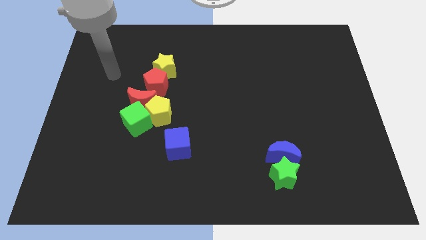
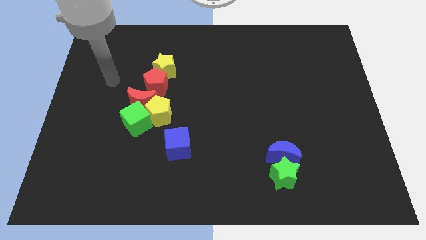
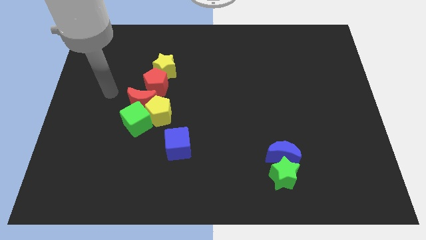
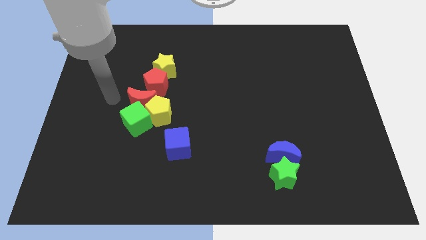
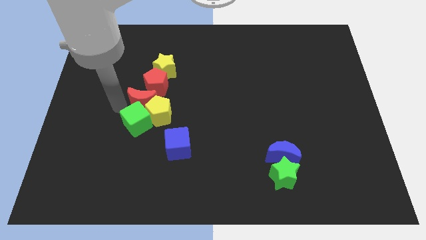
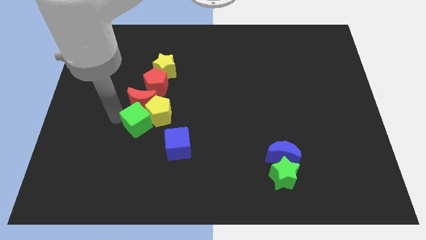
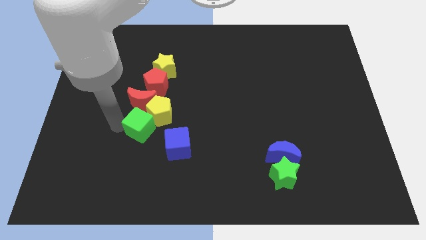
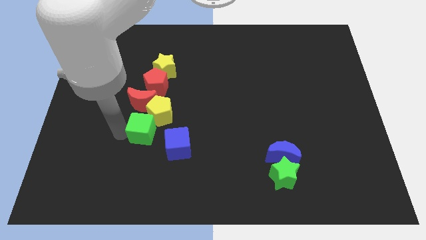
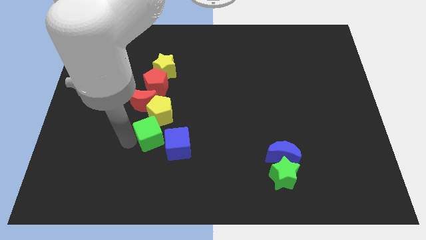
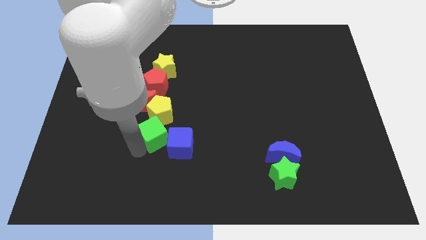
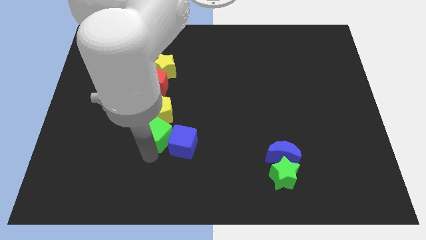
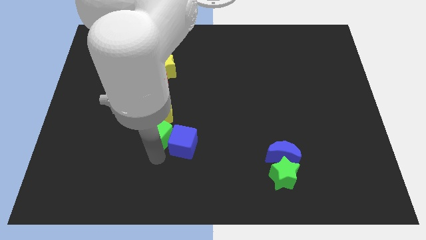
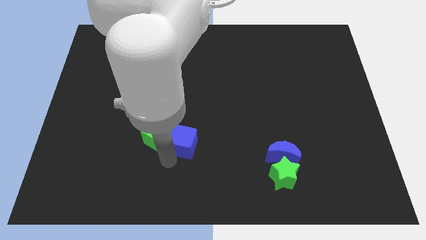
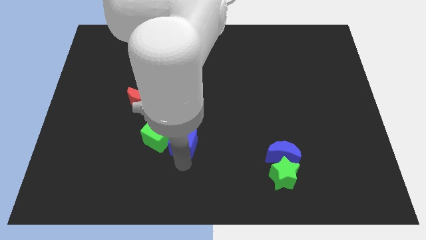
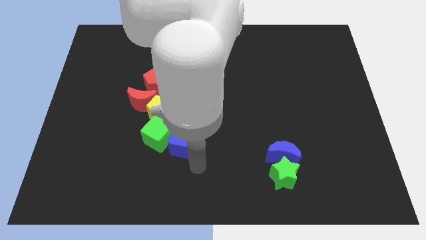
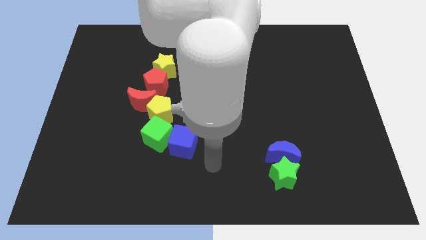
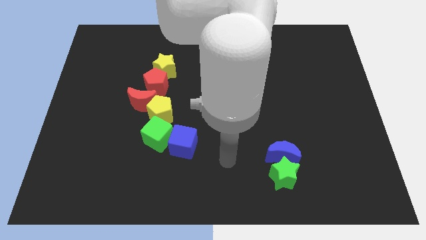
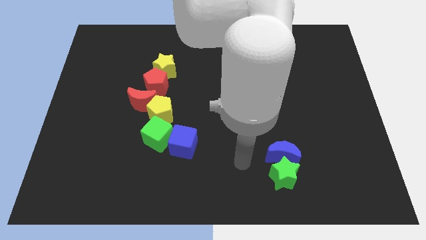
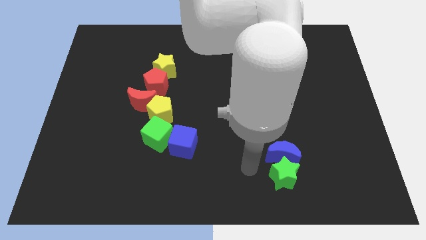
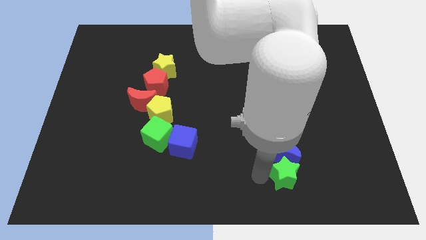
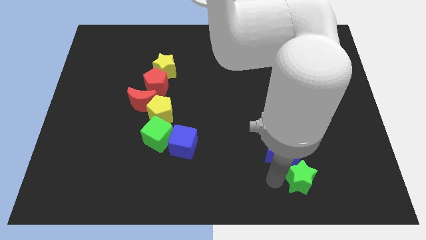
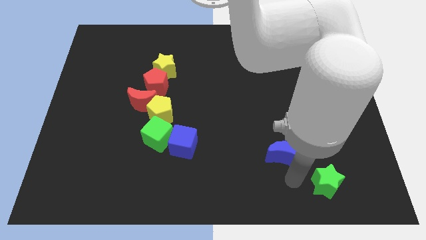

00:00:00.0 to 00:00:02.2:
separate the blue moon from the green star

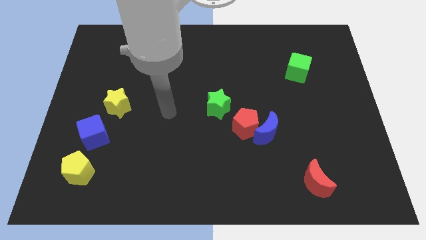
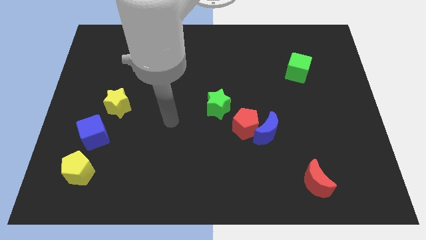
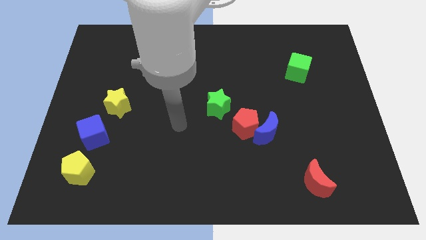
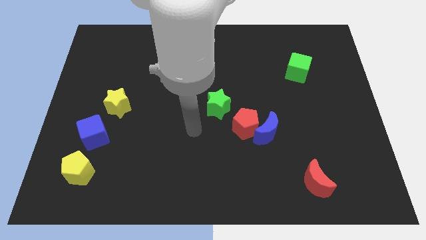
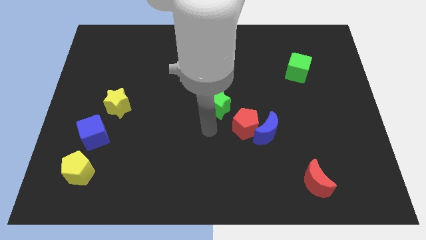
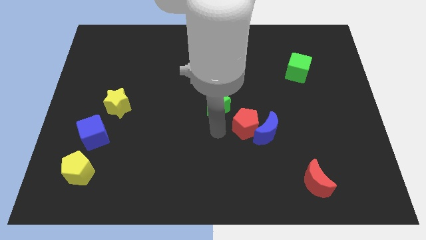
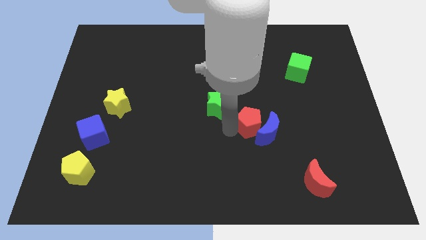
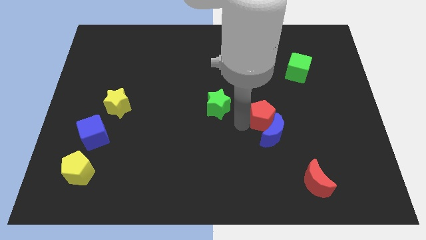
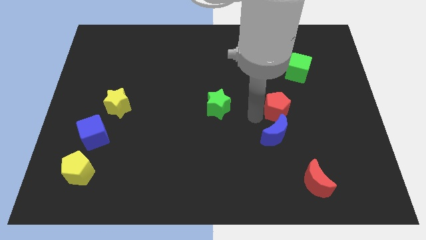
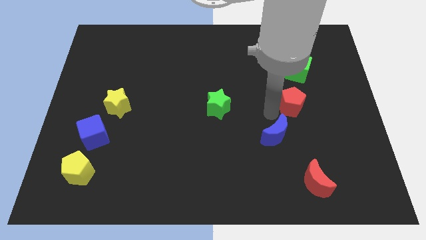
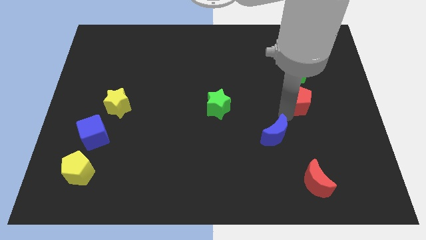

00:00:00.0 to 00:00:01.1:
pull the blue moon apart from the red pentagon

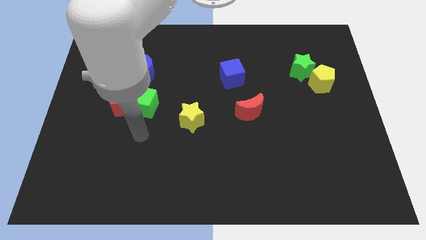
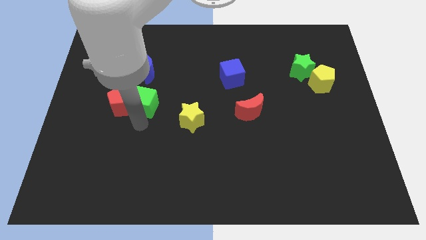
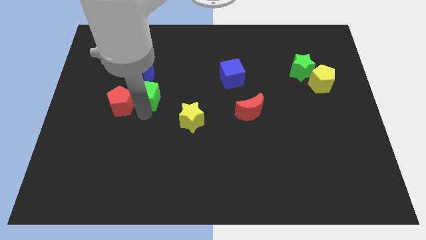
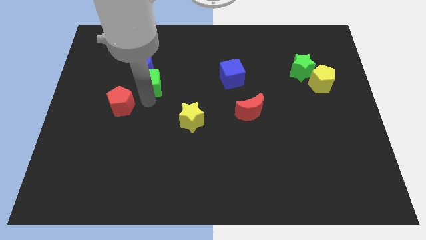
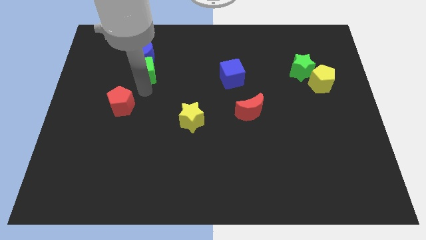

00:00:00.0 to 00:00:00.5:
move the red pentagon away from the green cube

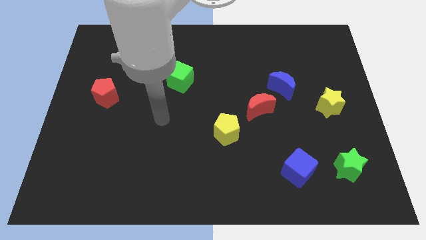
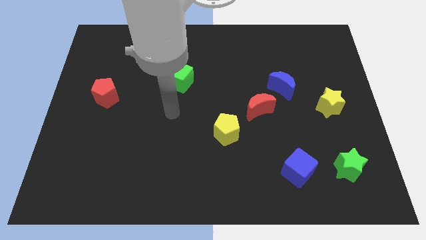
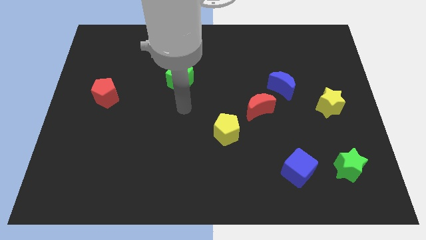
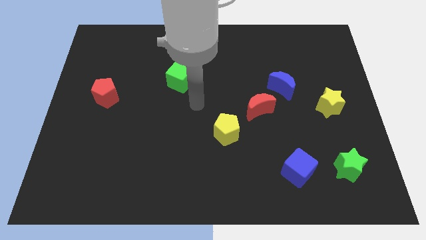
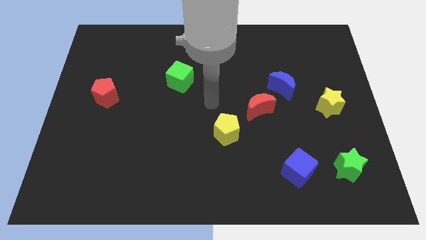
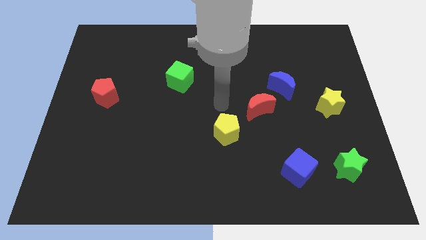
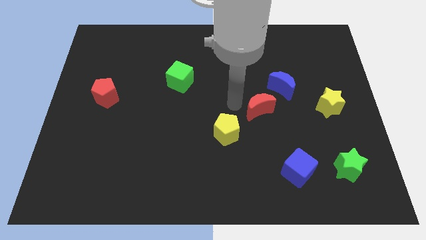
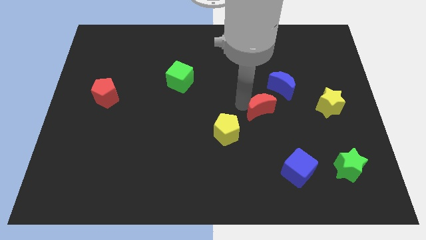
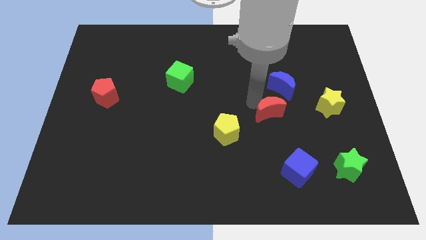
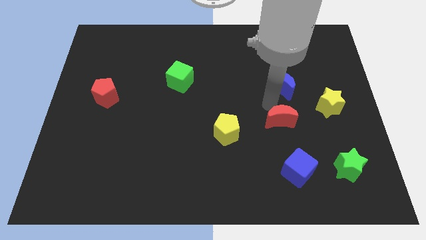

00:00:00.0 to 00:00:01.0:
pull the blue moon apart from the red moon

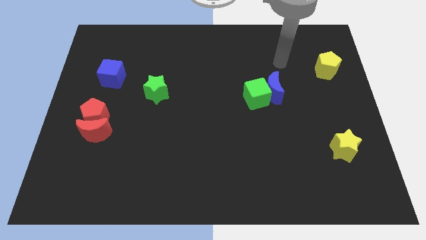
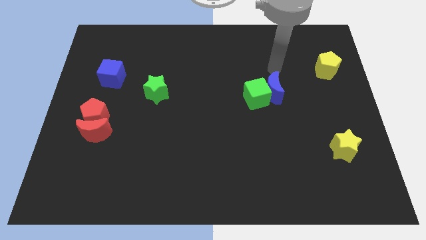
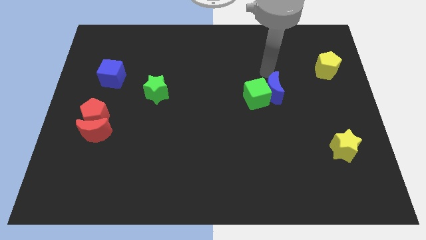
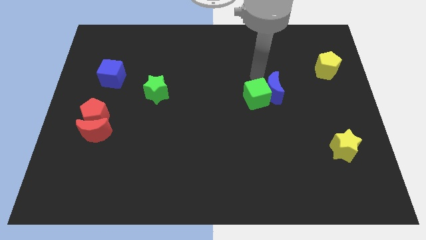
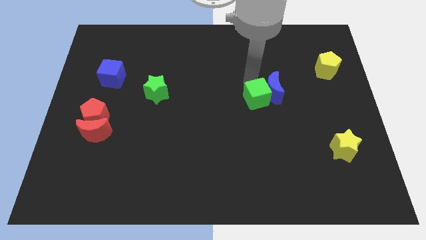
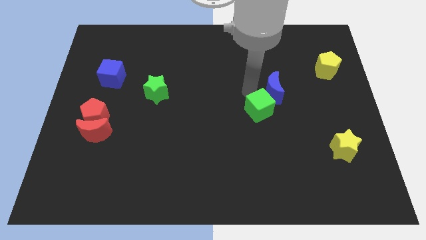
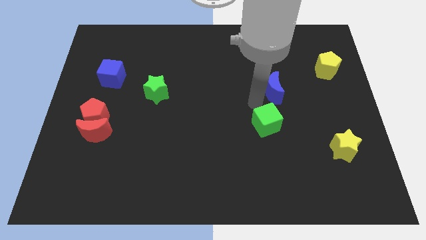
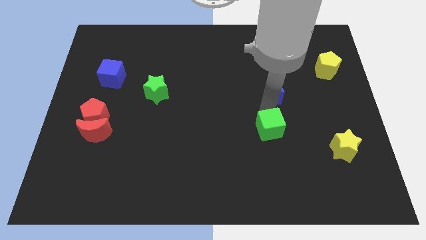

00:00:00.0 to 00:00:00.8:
separate the blue moon from the green cube

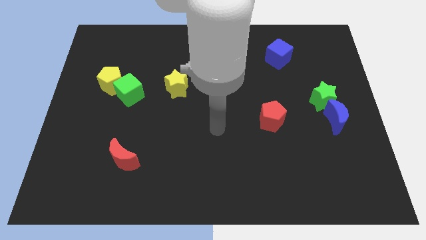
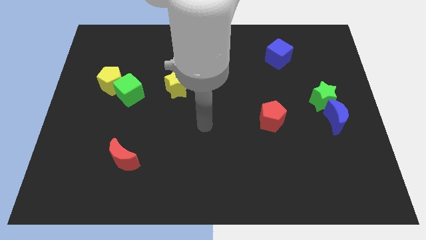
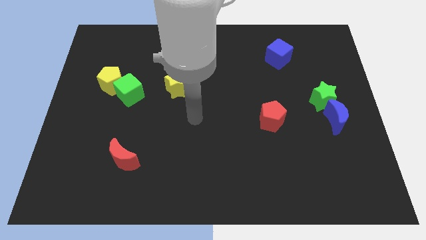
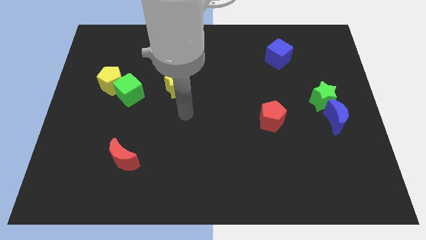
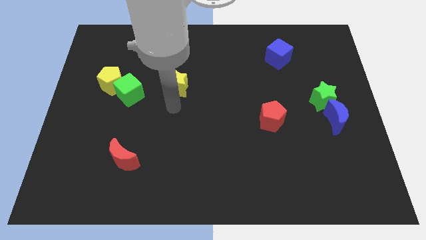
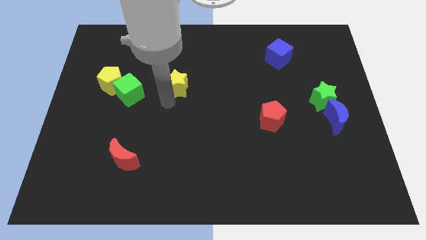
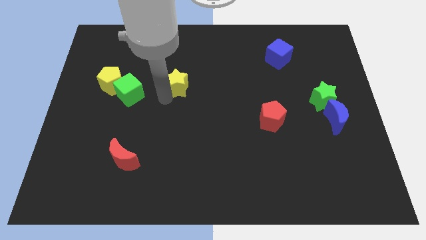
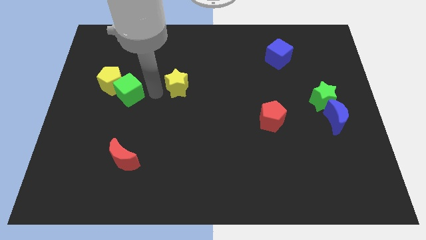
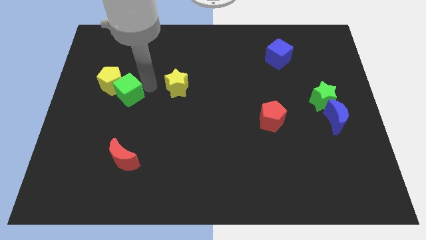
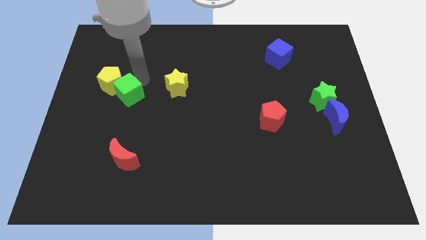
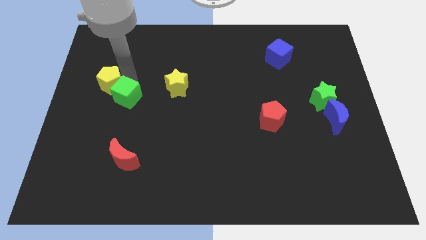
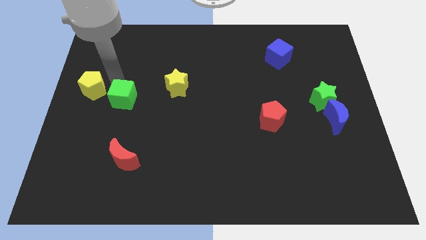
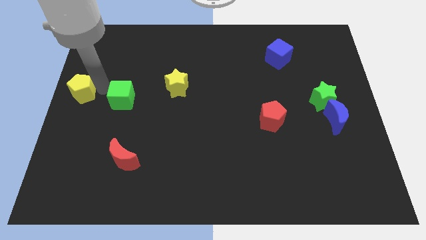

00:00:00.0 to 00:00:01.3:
move the green cube away from the yellow pentagon

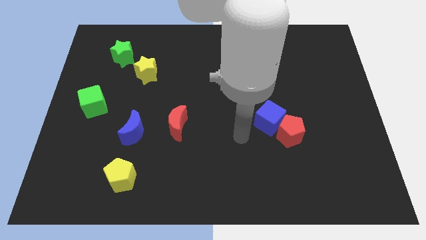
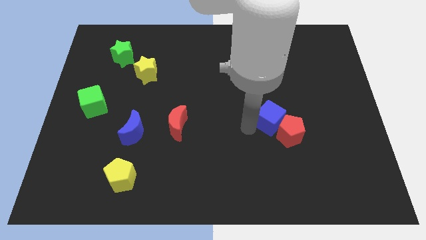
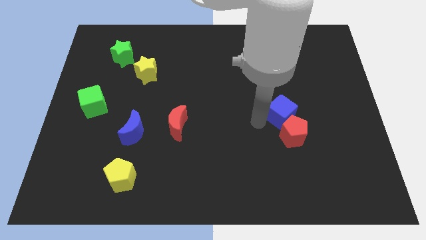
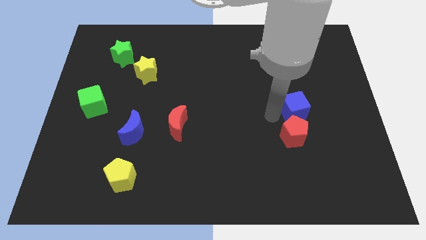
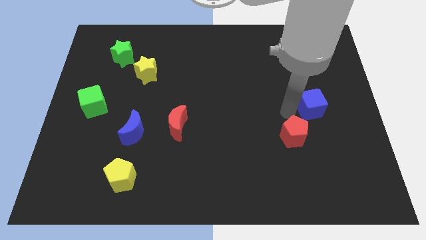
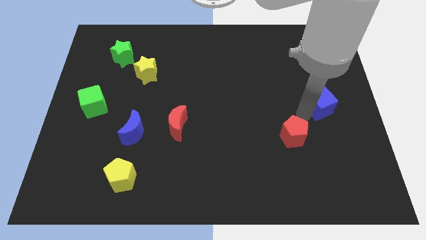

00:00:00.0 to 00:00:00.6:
pull the red pentagon apart from the blue cube

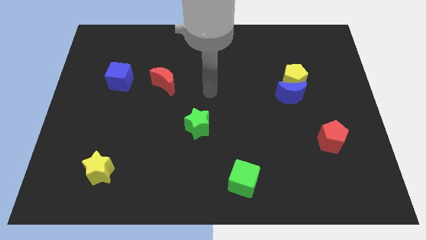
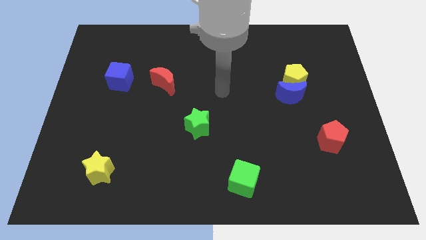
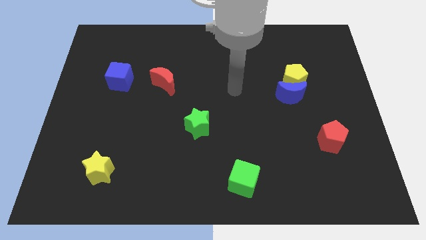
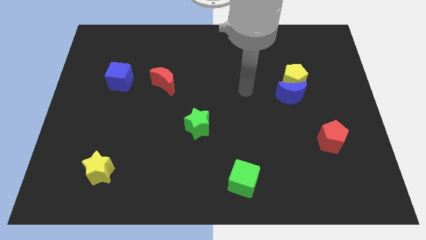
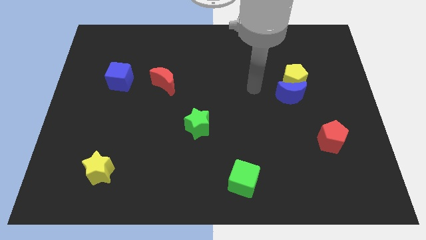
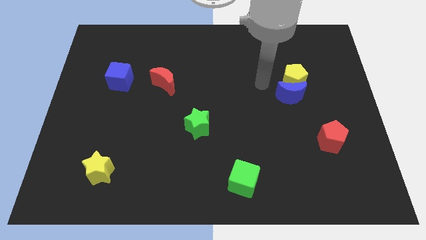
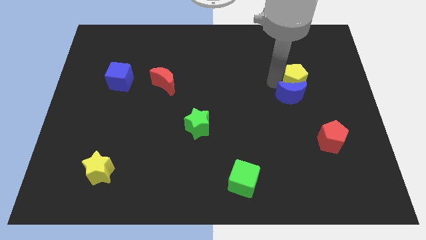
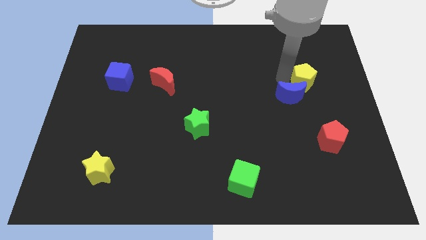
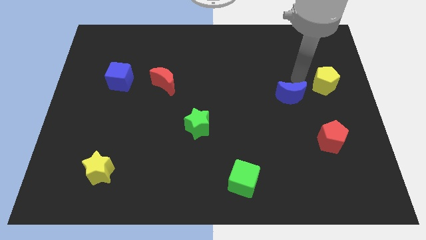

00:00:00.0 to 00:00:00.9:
separate the blue moon from the yellow pentagon

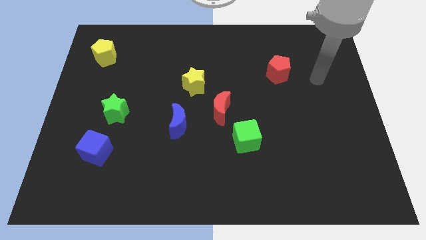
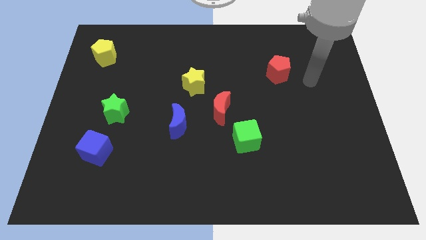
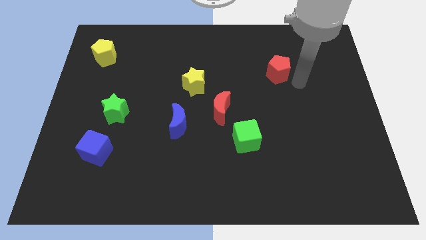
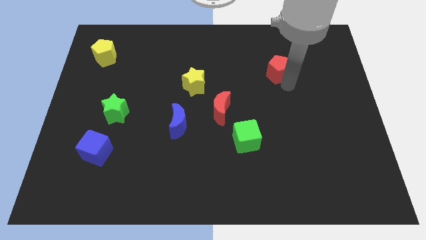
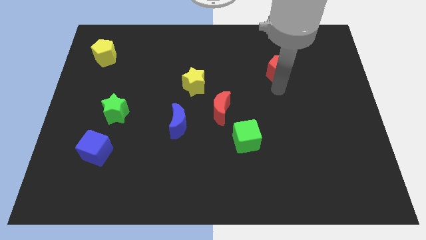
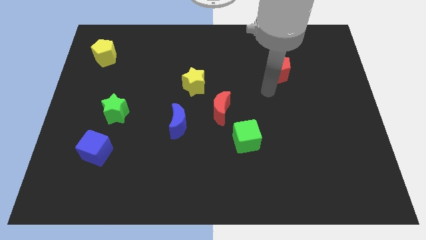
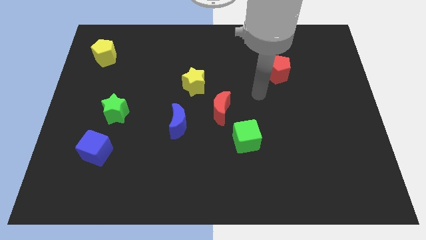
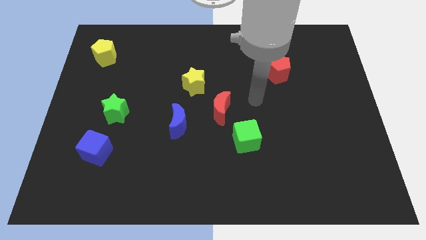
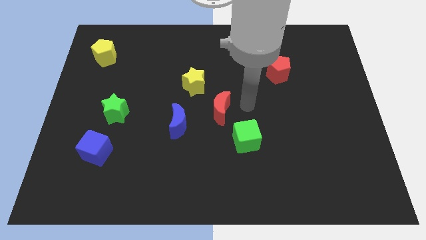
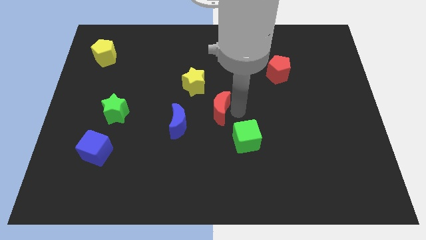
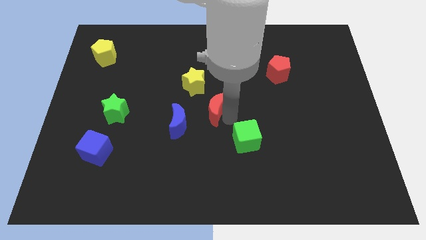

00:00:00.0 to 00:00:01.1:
separate the green cube from the red moon
